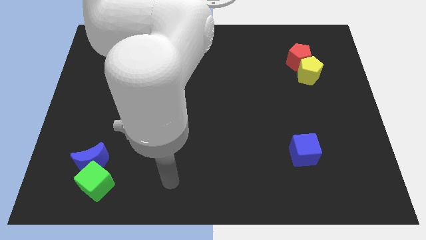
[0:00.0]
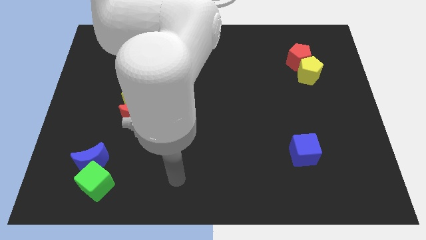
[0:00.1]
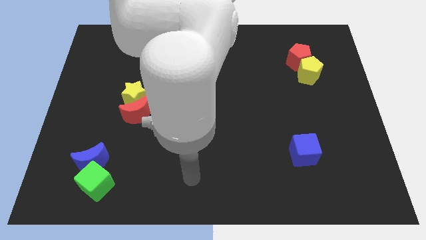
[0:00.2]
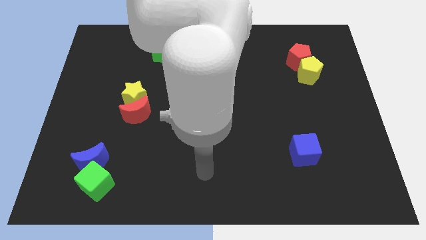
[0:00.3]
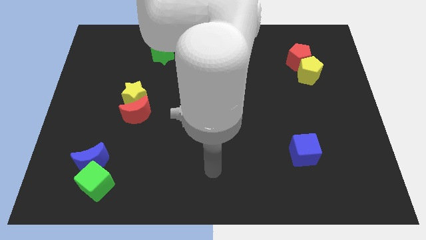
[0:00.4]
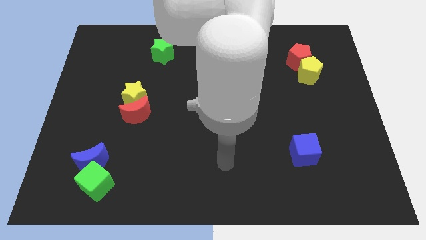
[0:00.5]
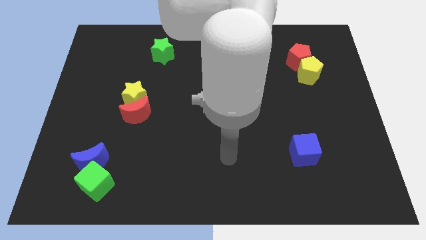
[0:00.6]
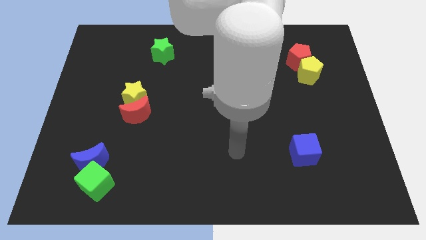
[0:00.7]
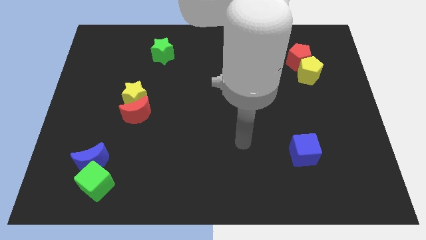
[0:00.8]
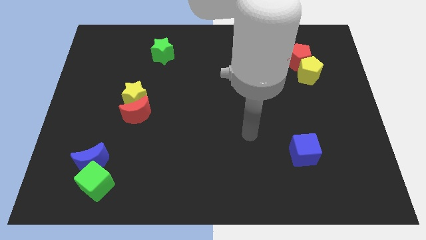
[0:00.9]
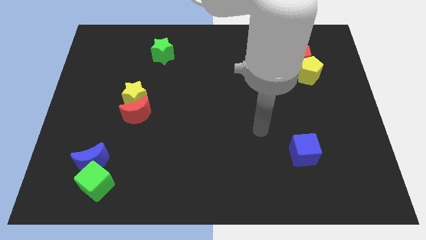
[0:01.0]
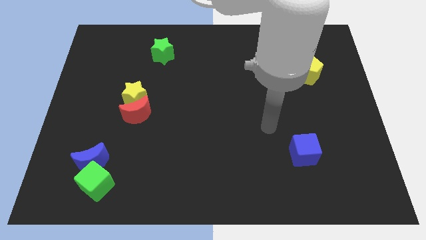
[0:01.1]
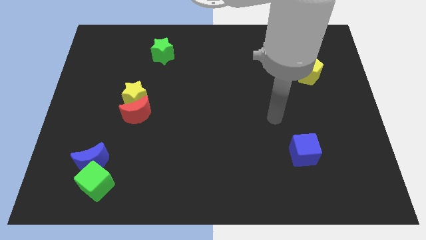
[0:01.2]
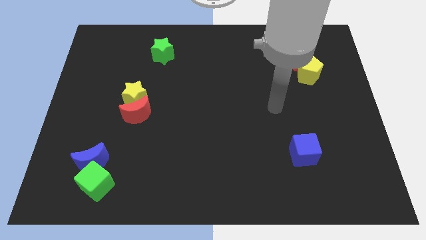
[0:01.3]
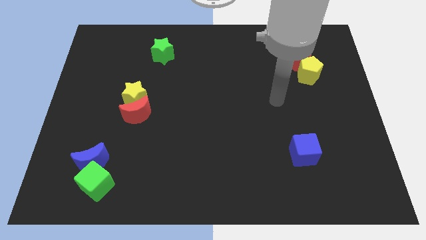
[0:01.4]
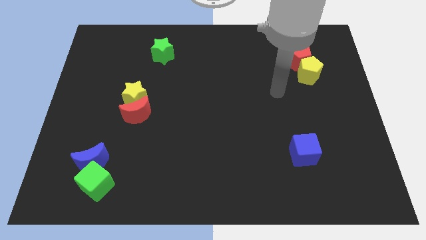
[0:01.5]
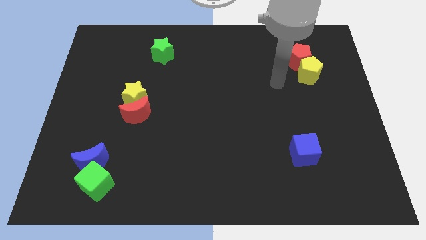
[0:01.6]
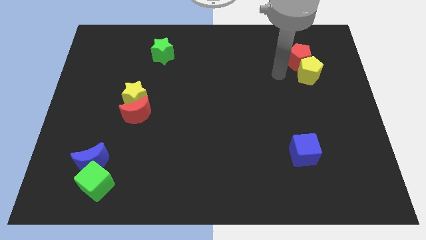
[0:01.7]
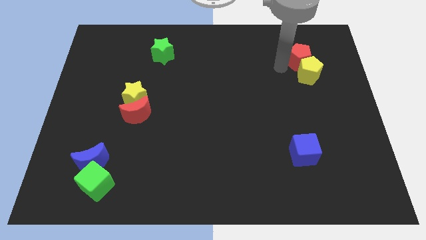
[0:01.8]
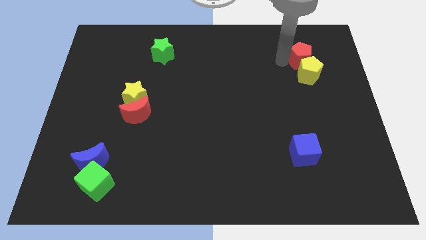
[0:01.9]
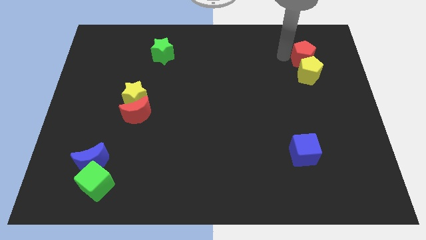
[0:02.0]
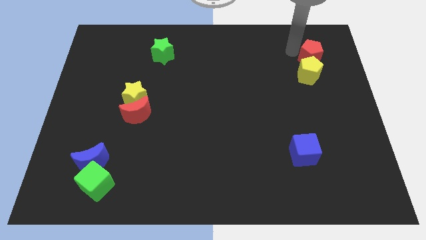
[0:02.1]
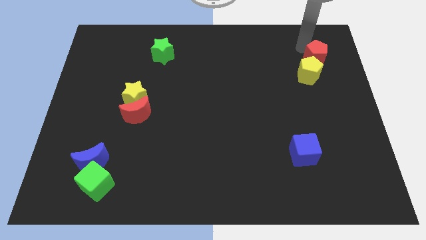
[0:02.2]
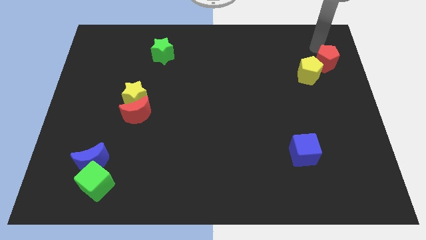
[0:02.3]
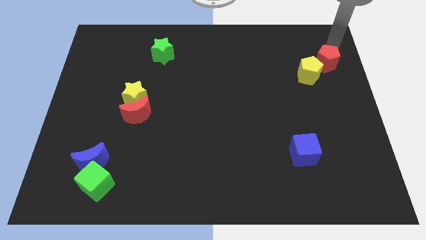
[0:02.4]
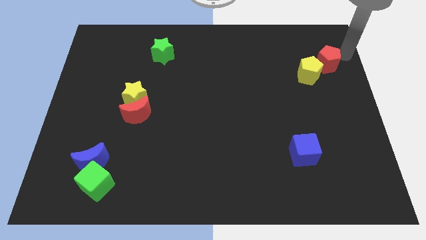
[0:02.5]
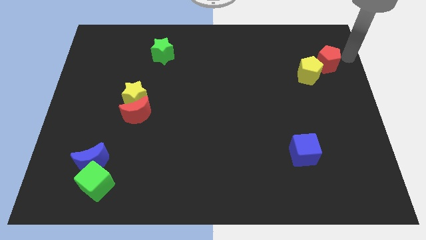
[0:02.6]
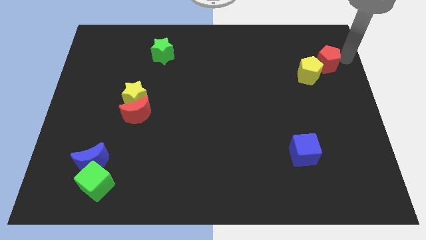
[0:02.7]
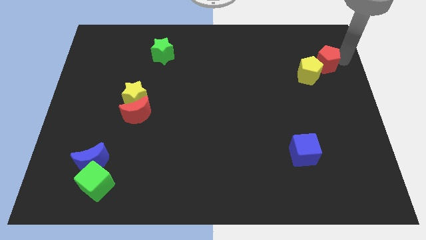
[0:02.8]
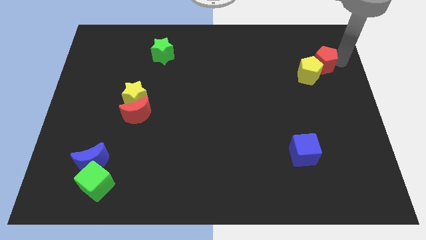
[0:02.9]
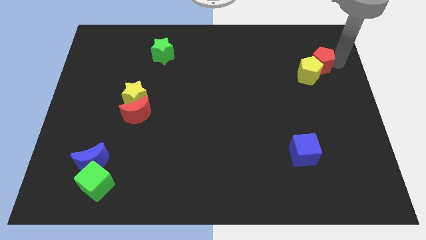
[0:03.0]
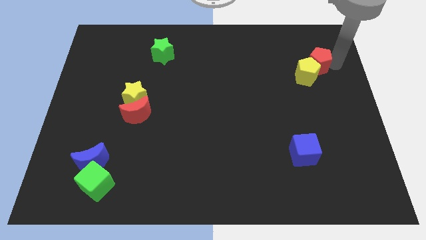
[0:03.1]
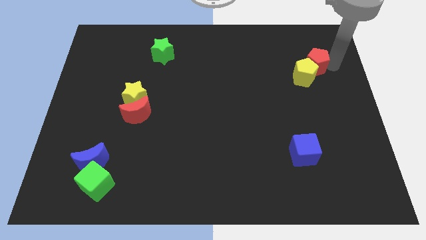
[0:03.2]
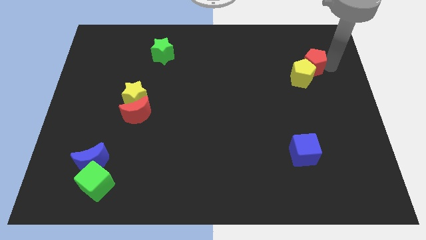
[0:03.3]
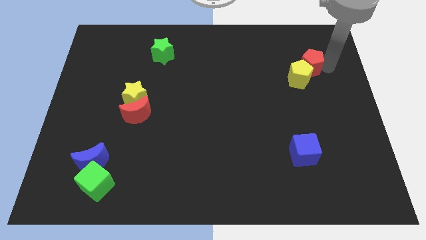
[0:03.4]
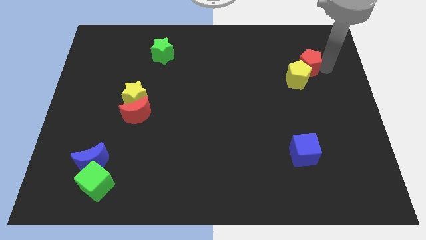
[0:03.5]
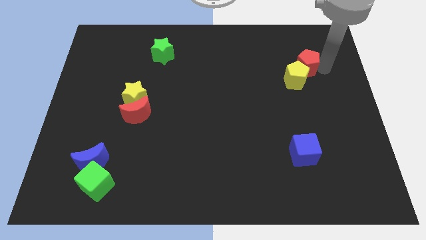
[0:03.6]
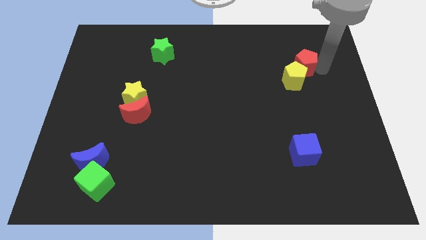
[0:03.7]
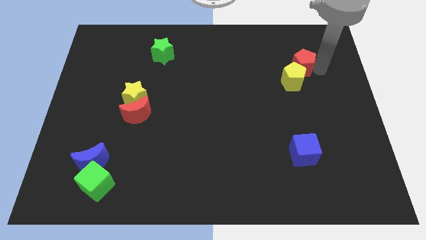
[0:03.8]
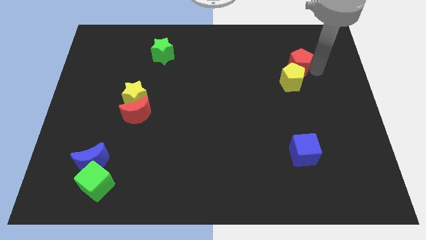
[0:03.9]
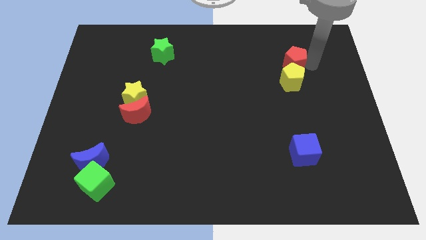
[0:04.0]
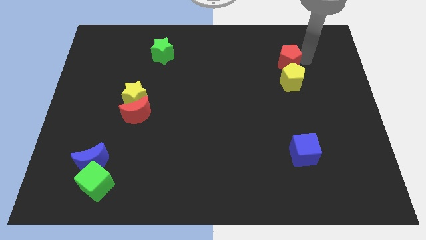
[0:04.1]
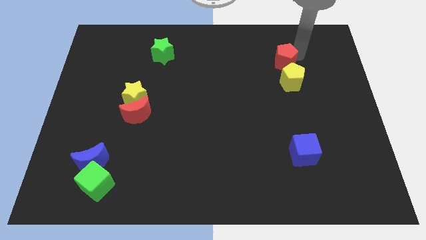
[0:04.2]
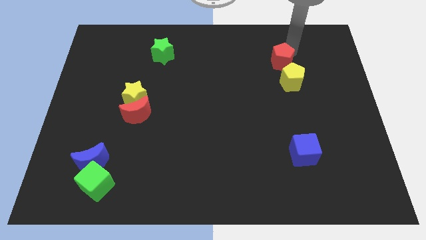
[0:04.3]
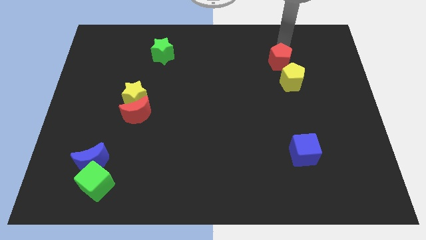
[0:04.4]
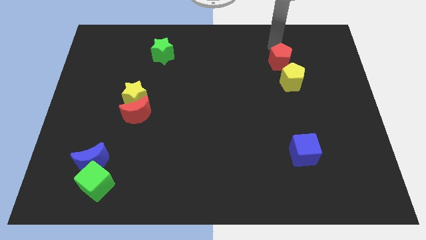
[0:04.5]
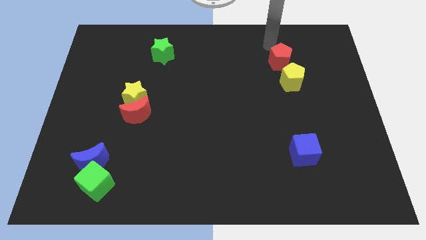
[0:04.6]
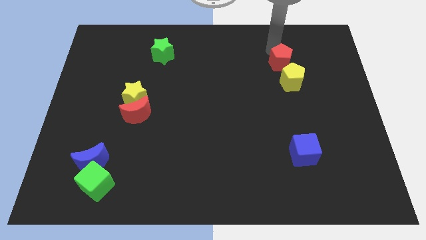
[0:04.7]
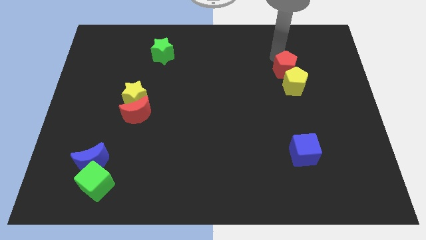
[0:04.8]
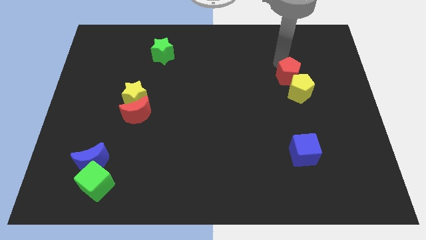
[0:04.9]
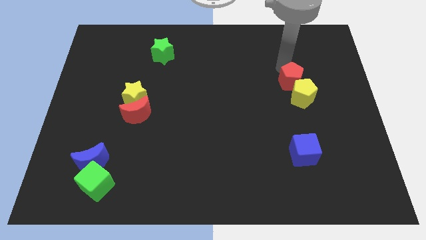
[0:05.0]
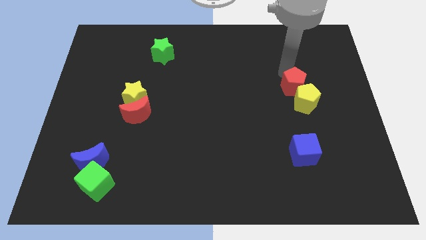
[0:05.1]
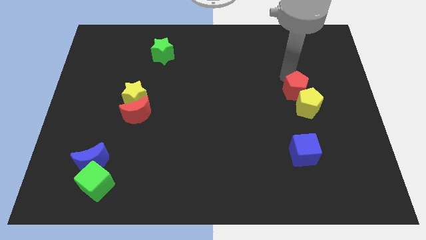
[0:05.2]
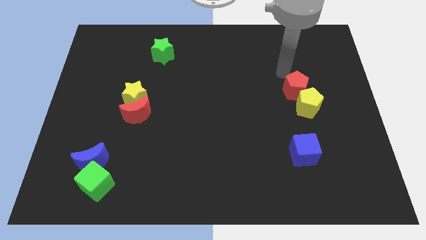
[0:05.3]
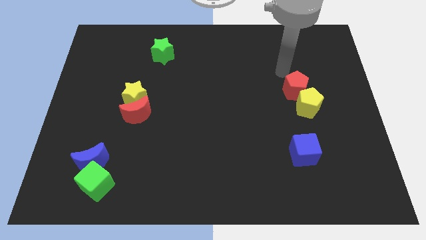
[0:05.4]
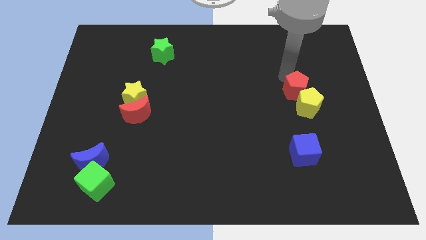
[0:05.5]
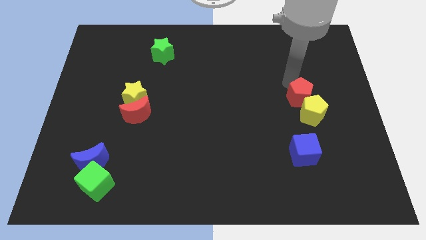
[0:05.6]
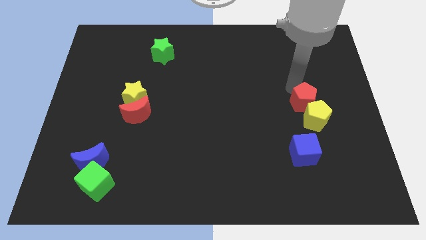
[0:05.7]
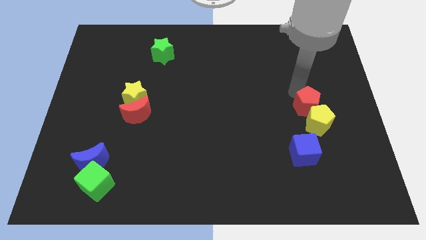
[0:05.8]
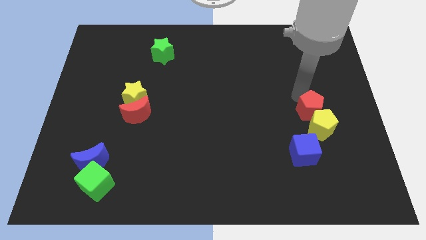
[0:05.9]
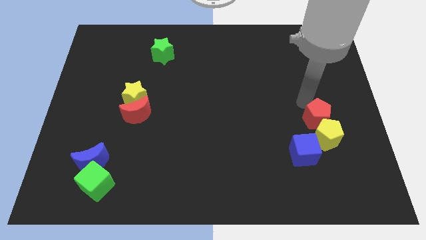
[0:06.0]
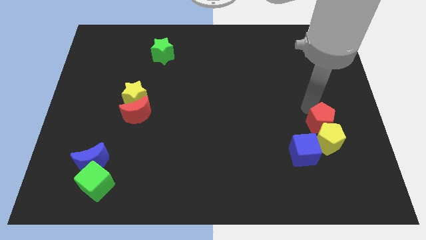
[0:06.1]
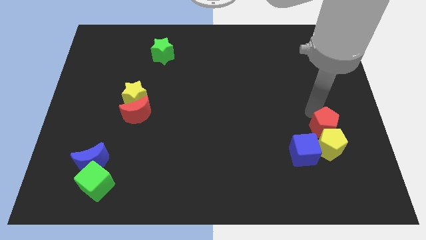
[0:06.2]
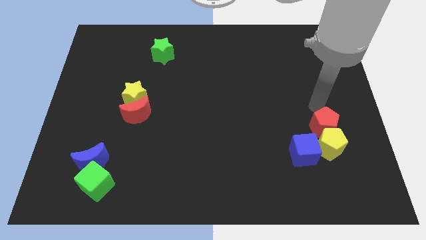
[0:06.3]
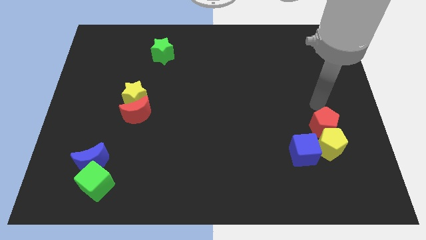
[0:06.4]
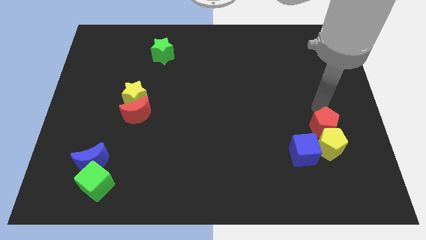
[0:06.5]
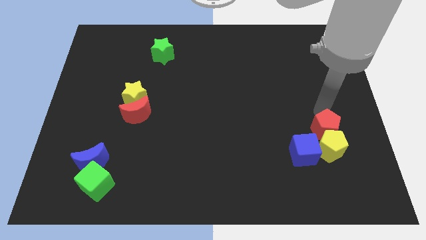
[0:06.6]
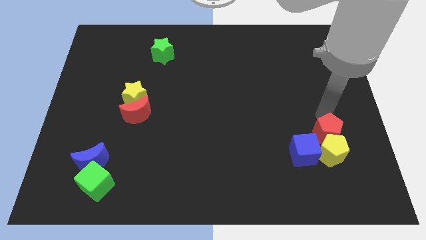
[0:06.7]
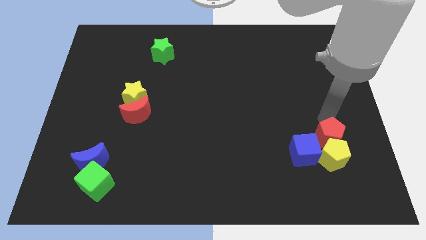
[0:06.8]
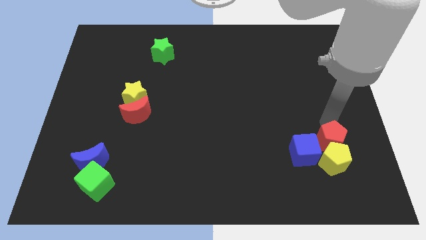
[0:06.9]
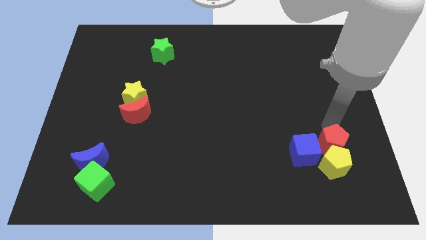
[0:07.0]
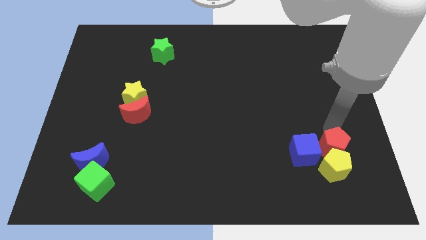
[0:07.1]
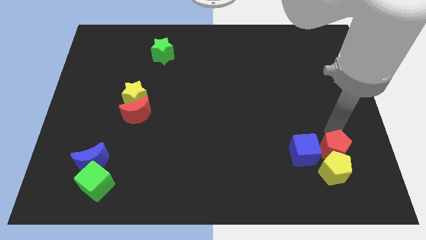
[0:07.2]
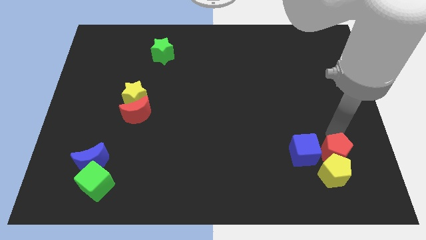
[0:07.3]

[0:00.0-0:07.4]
push the red pentagon to the bottom right of the blue cube

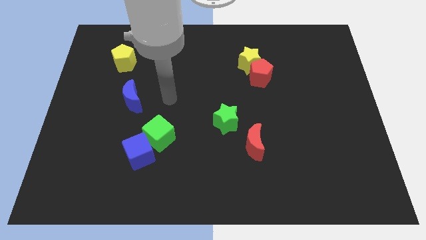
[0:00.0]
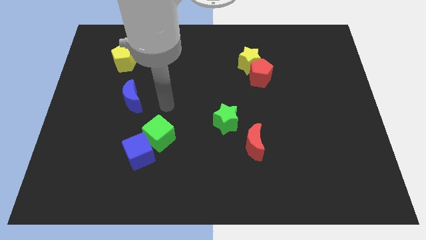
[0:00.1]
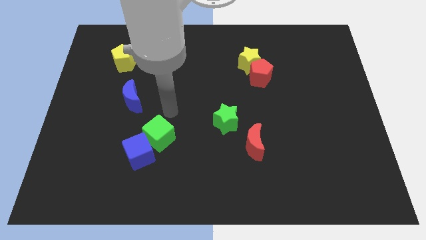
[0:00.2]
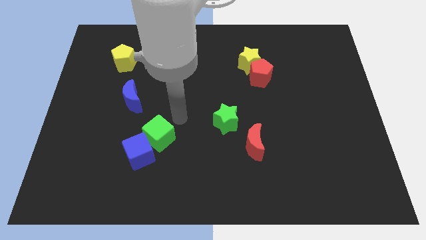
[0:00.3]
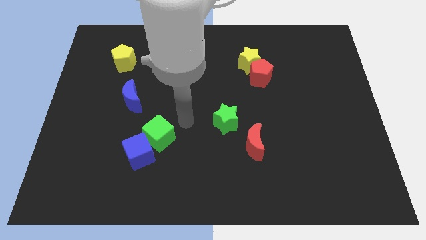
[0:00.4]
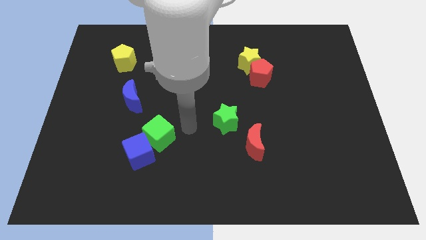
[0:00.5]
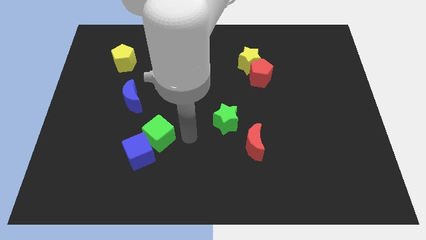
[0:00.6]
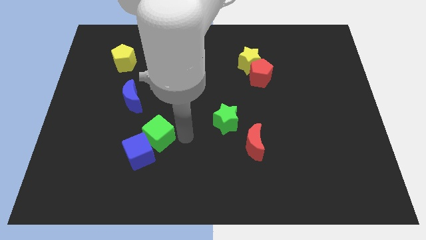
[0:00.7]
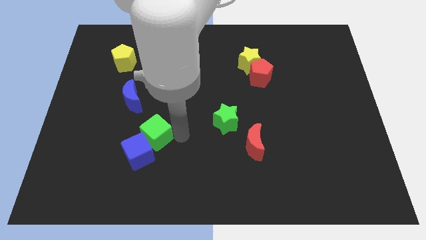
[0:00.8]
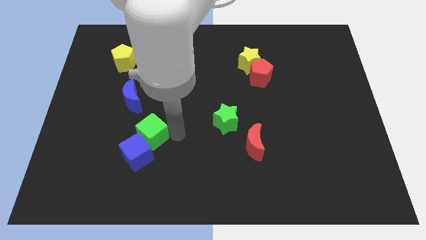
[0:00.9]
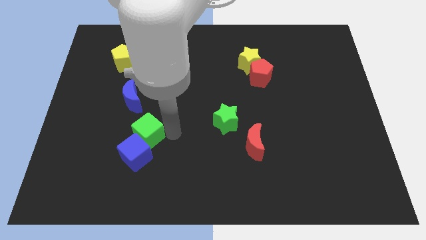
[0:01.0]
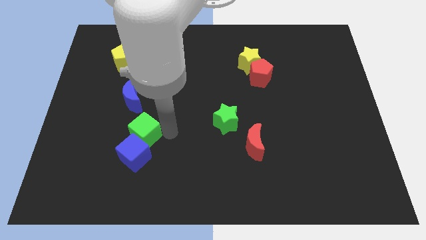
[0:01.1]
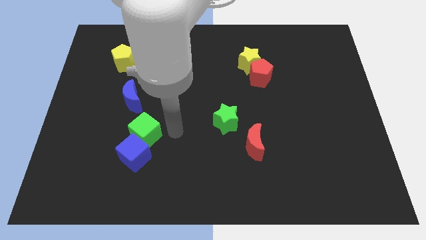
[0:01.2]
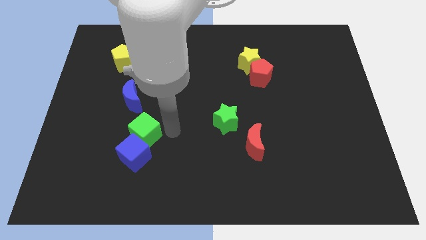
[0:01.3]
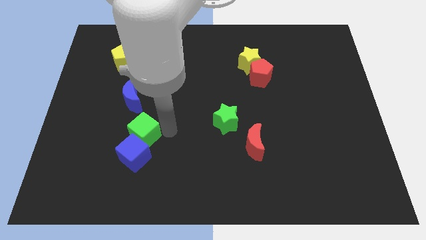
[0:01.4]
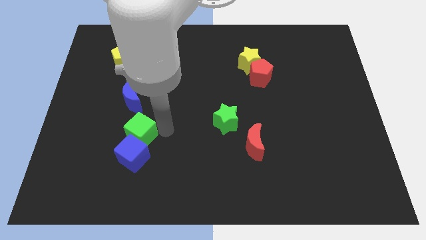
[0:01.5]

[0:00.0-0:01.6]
put the green cube to the top left of the blue cube
